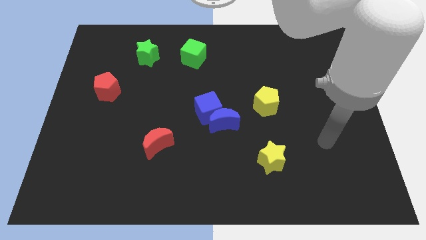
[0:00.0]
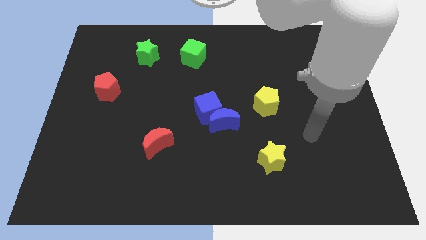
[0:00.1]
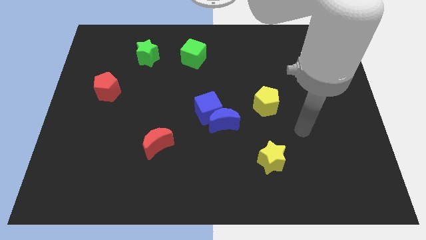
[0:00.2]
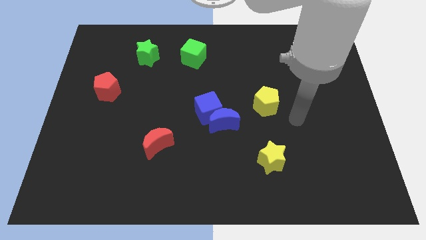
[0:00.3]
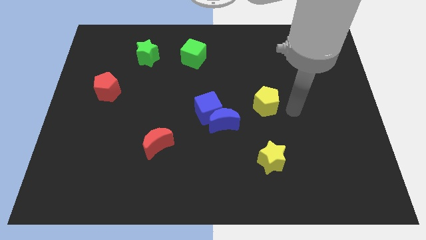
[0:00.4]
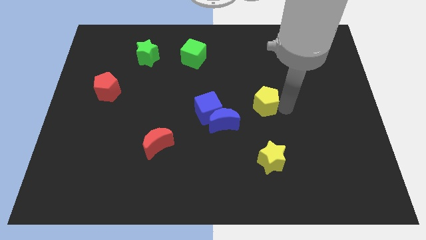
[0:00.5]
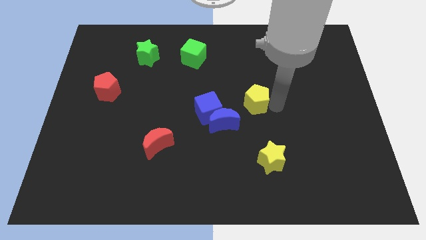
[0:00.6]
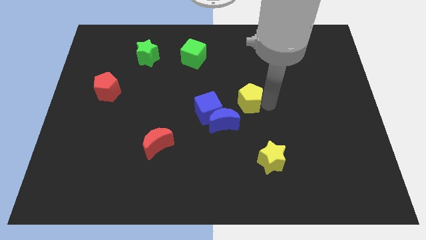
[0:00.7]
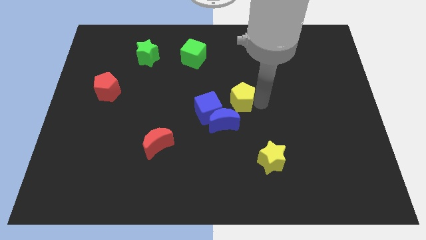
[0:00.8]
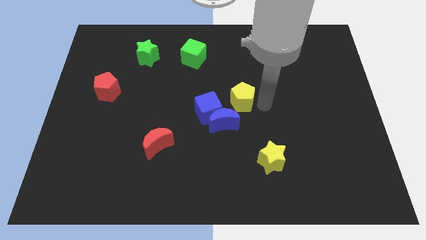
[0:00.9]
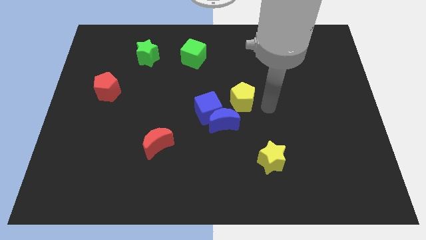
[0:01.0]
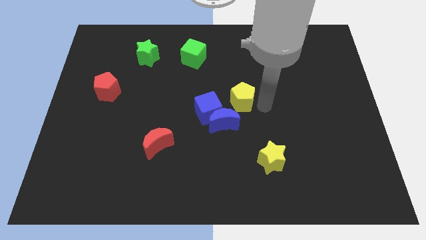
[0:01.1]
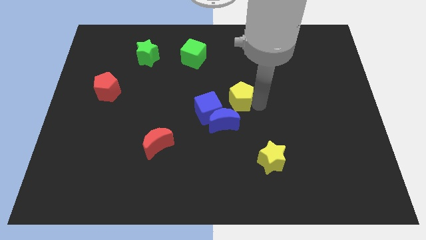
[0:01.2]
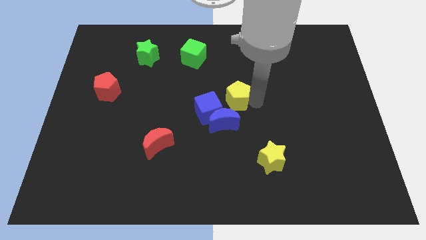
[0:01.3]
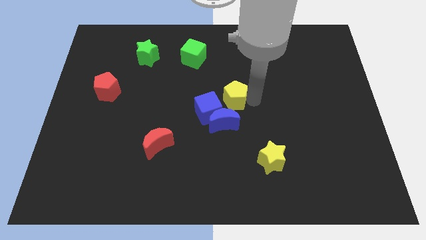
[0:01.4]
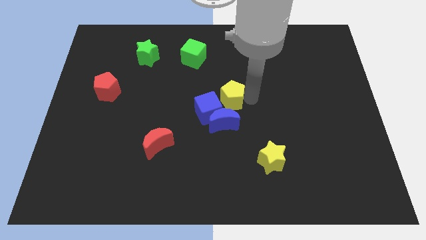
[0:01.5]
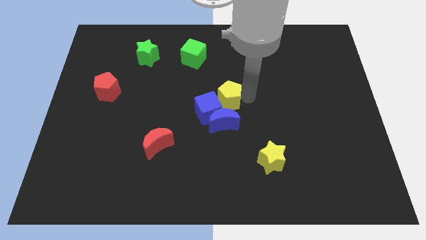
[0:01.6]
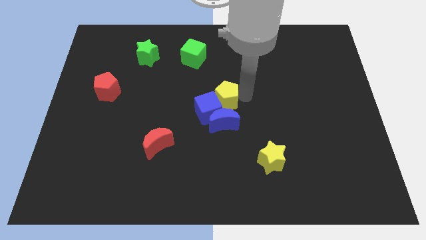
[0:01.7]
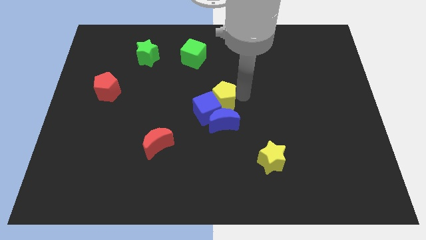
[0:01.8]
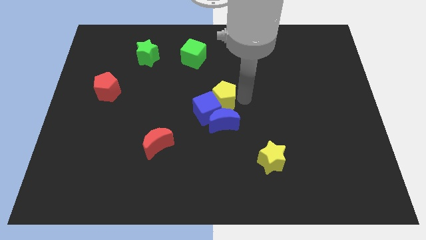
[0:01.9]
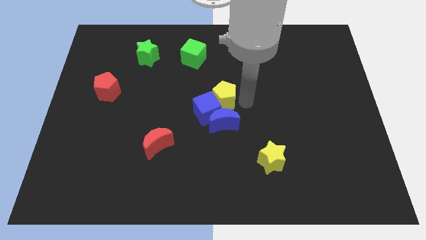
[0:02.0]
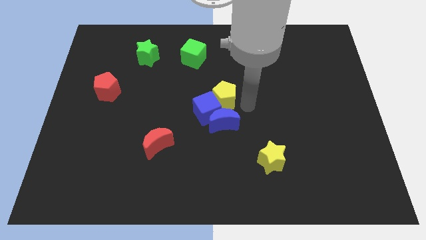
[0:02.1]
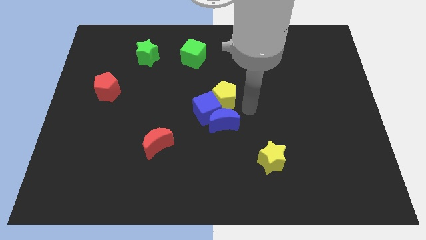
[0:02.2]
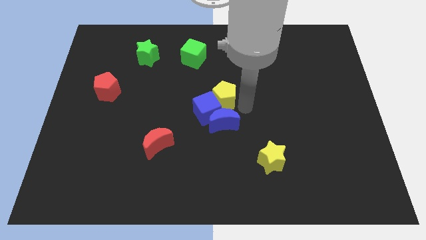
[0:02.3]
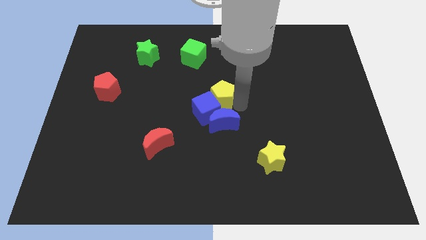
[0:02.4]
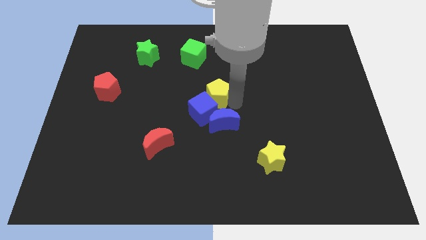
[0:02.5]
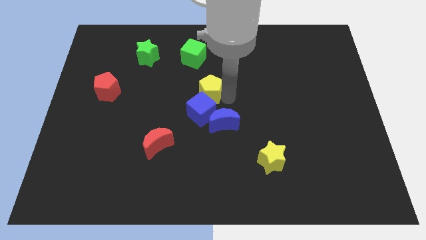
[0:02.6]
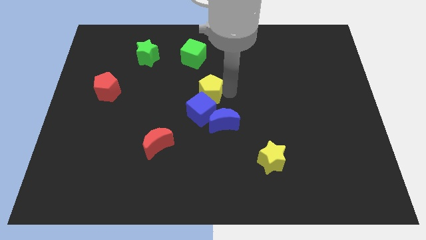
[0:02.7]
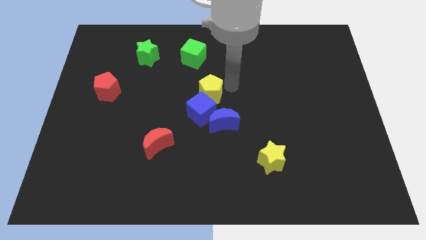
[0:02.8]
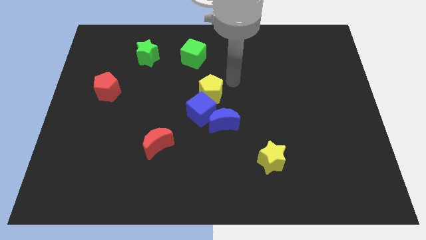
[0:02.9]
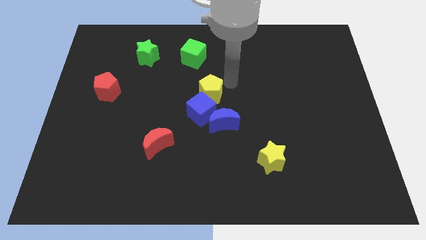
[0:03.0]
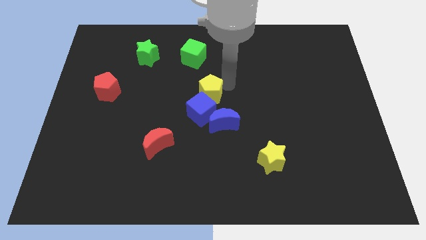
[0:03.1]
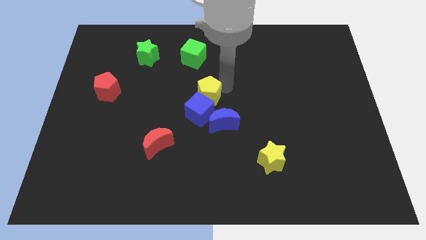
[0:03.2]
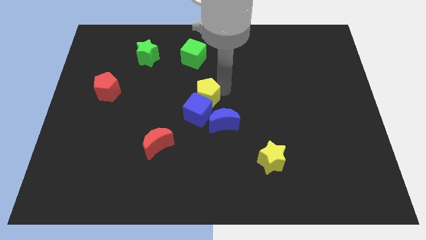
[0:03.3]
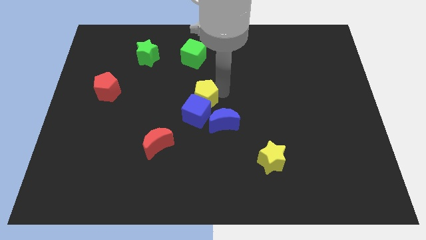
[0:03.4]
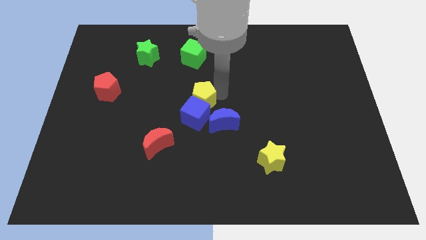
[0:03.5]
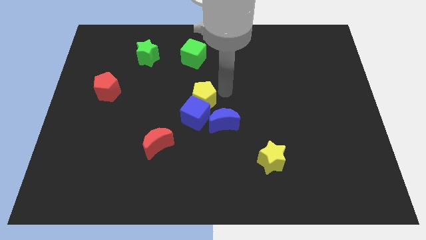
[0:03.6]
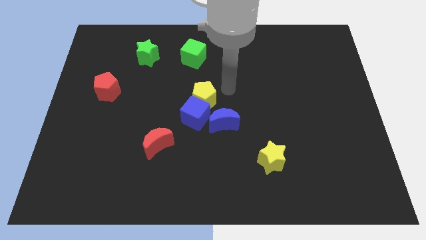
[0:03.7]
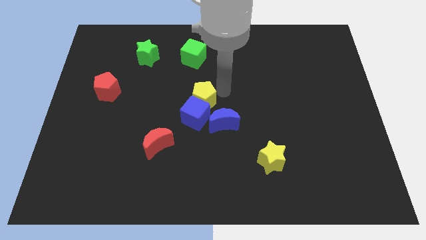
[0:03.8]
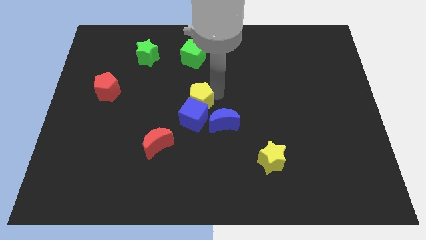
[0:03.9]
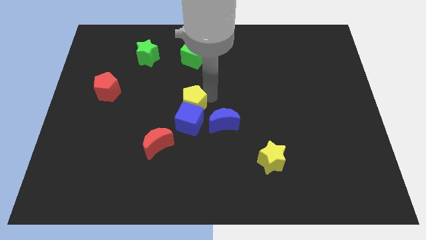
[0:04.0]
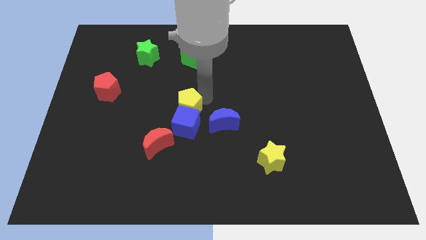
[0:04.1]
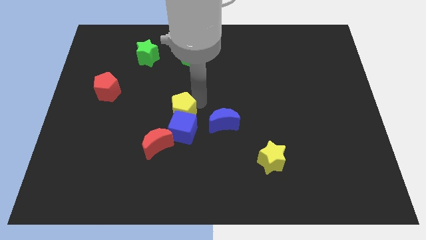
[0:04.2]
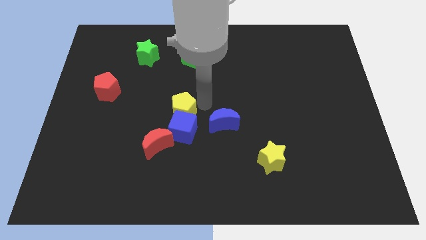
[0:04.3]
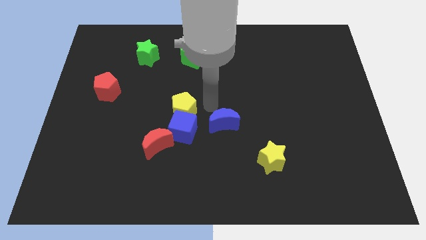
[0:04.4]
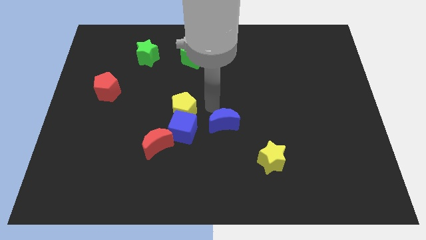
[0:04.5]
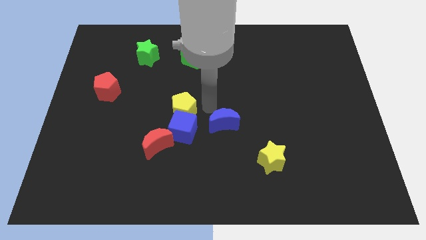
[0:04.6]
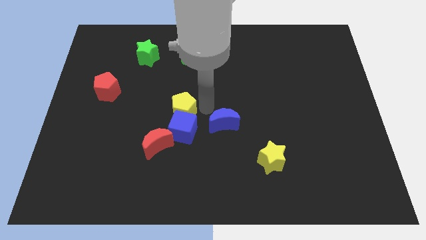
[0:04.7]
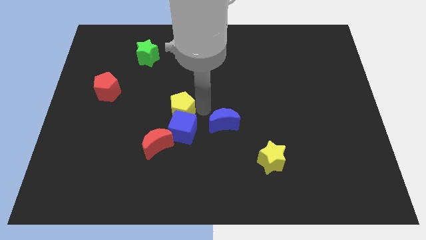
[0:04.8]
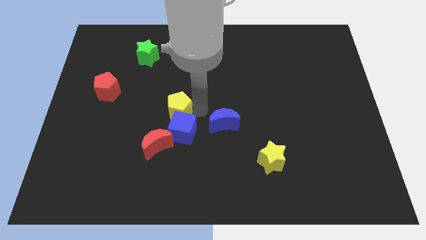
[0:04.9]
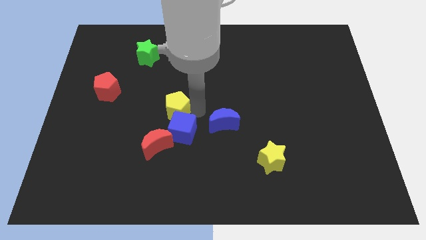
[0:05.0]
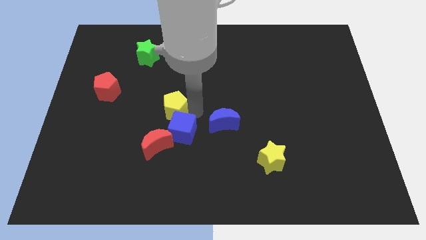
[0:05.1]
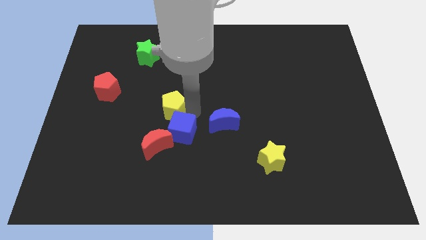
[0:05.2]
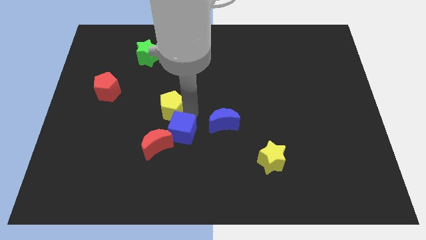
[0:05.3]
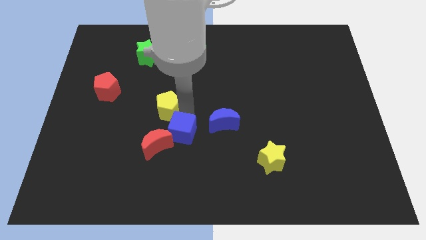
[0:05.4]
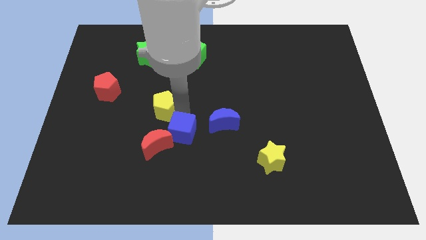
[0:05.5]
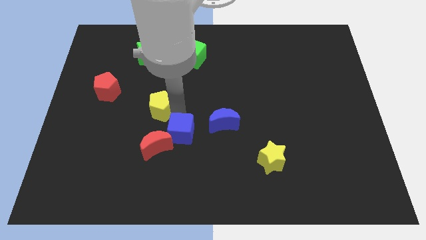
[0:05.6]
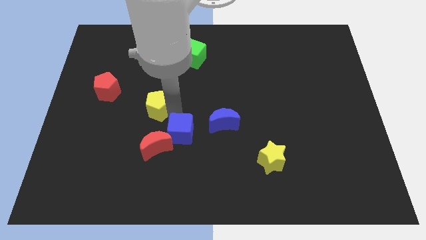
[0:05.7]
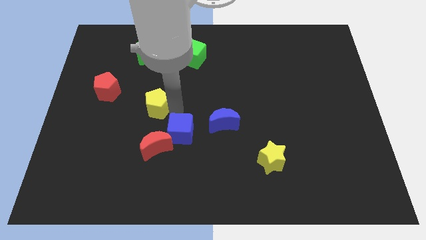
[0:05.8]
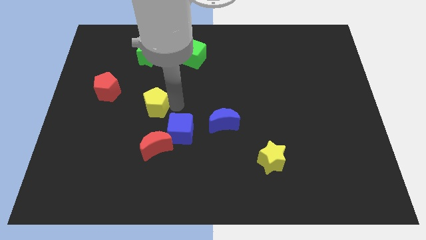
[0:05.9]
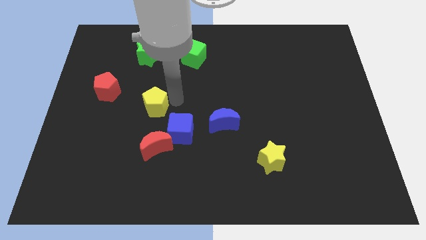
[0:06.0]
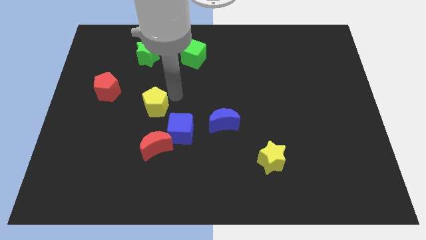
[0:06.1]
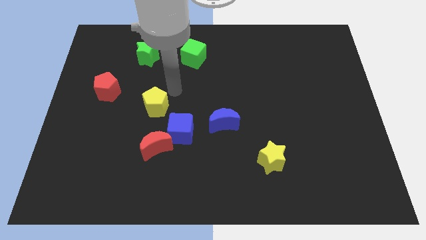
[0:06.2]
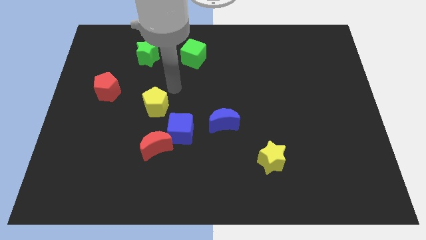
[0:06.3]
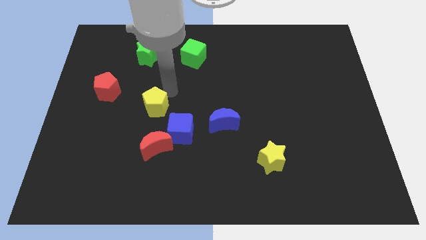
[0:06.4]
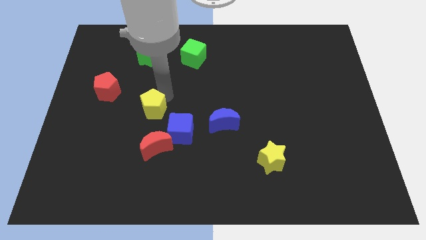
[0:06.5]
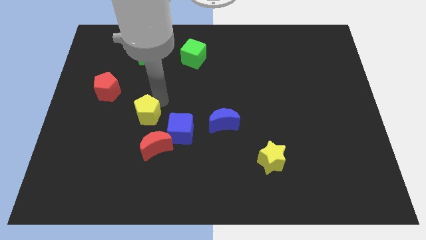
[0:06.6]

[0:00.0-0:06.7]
push the yellow pentagon diagonally up and to the left of the red moon

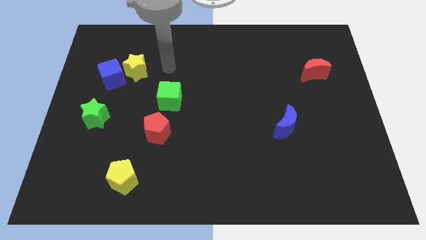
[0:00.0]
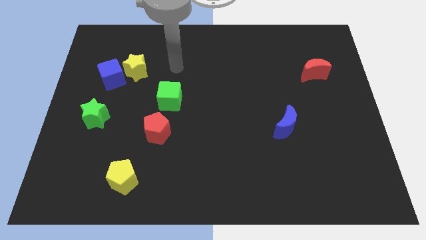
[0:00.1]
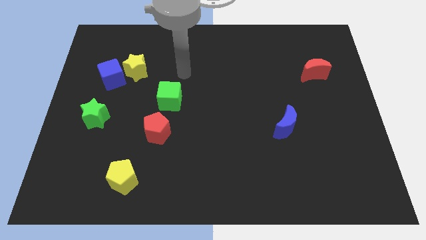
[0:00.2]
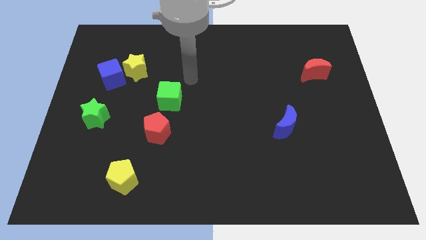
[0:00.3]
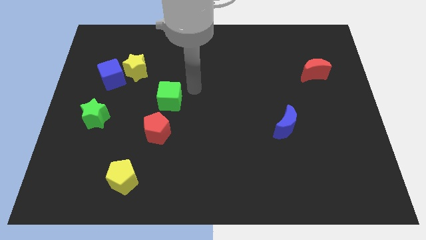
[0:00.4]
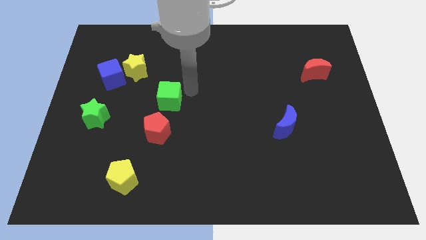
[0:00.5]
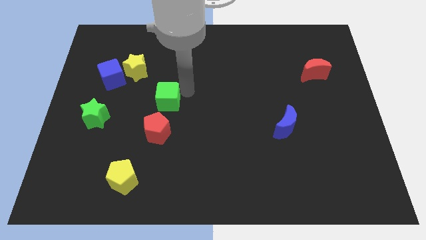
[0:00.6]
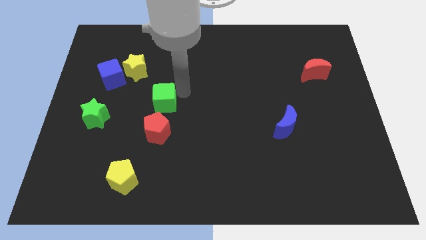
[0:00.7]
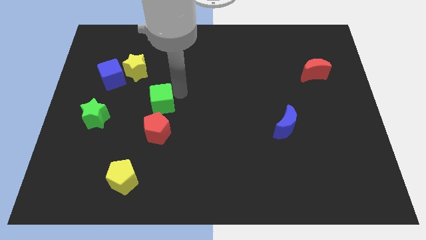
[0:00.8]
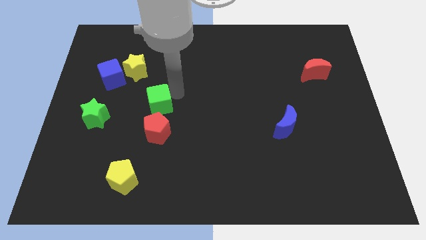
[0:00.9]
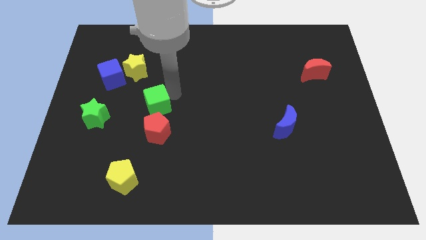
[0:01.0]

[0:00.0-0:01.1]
put the green cube diagonally up and to the left of the red pentagon

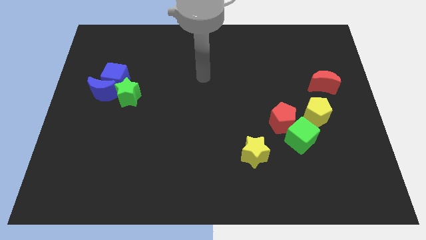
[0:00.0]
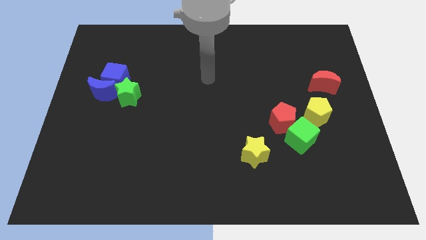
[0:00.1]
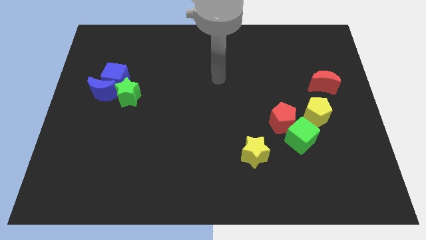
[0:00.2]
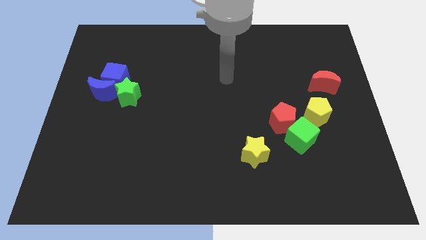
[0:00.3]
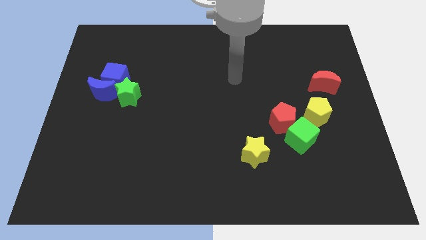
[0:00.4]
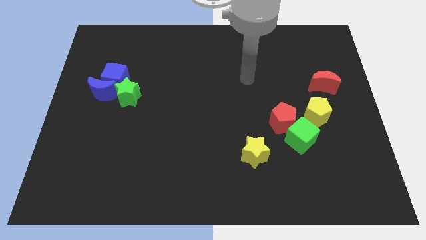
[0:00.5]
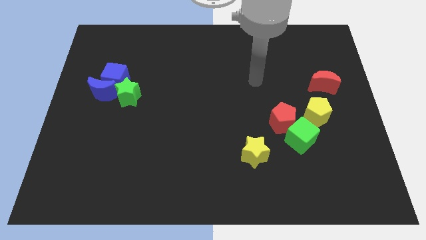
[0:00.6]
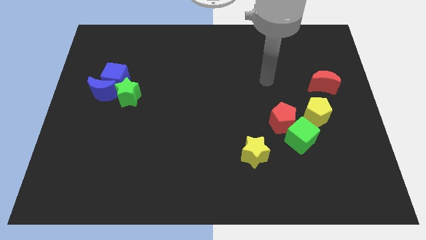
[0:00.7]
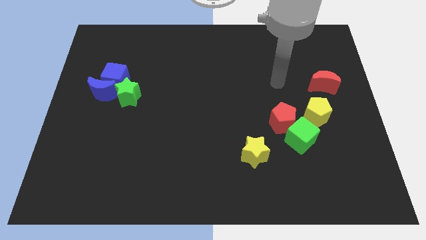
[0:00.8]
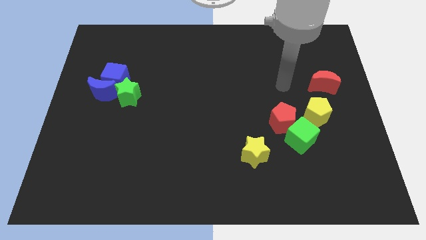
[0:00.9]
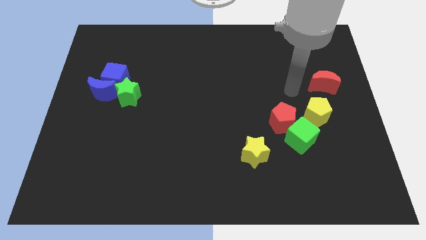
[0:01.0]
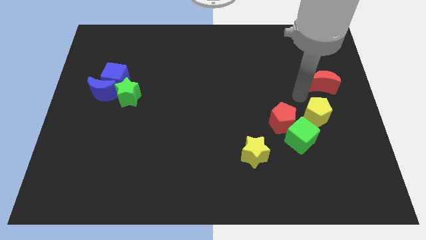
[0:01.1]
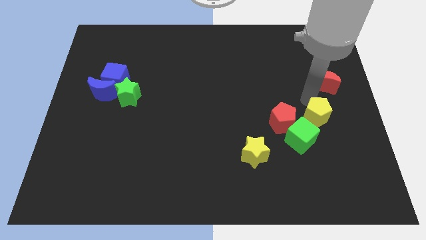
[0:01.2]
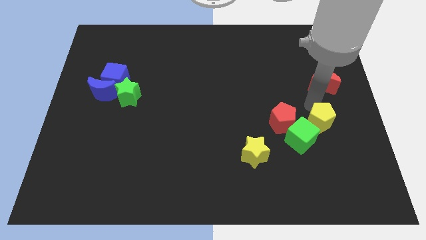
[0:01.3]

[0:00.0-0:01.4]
slide the green cube to the left of the yellow pentagon
